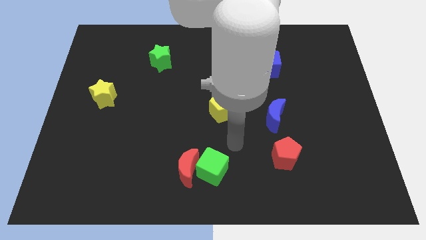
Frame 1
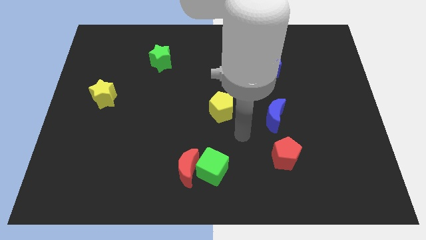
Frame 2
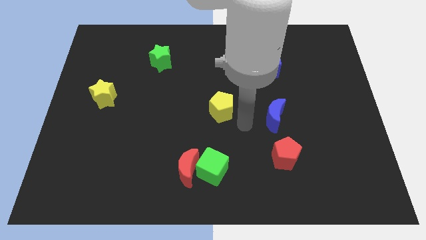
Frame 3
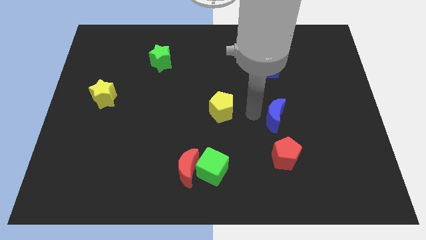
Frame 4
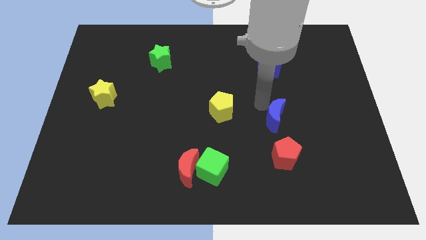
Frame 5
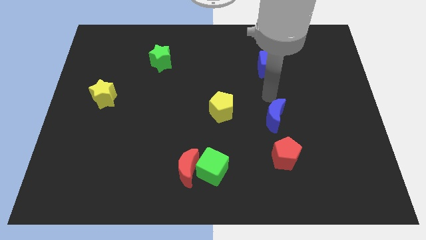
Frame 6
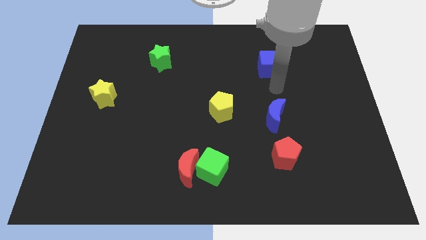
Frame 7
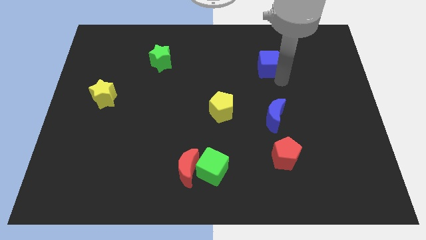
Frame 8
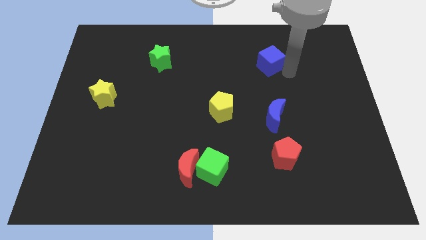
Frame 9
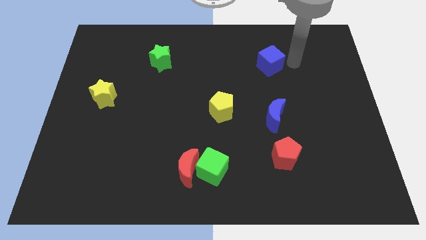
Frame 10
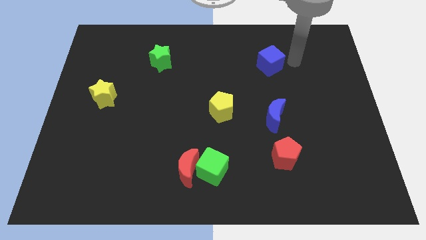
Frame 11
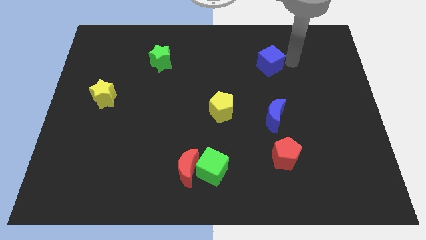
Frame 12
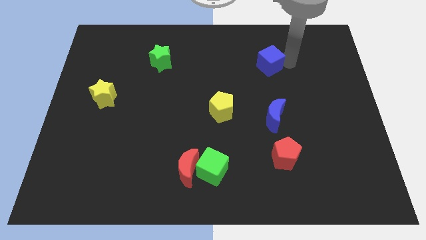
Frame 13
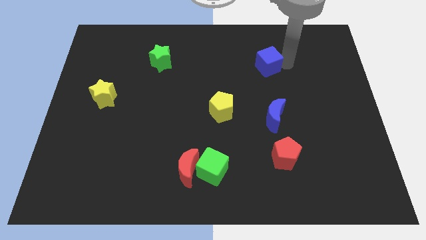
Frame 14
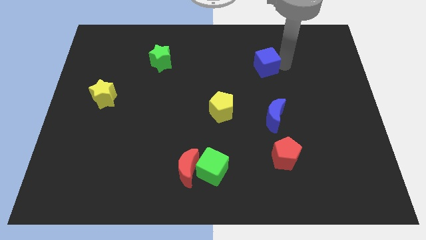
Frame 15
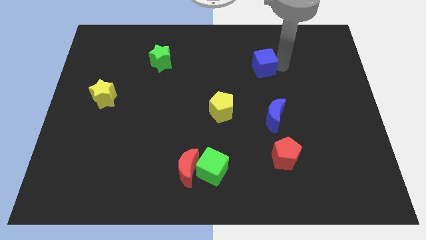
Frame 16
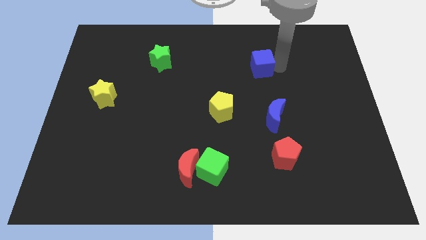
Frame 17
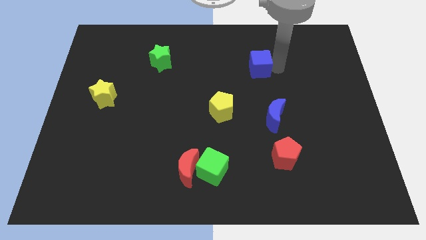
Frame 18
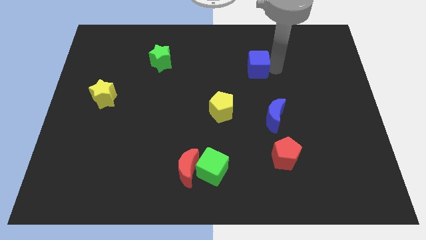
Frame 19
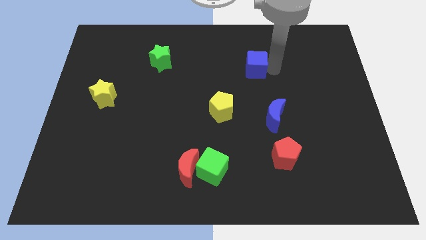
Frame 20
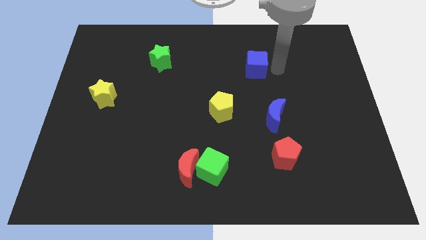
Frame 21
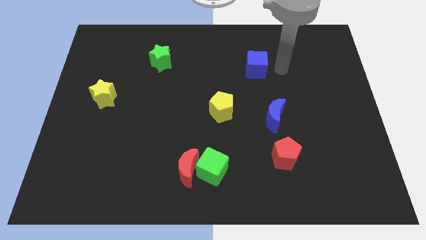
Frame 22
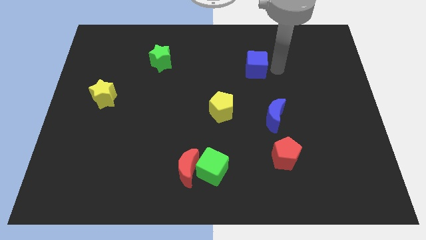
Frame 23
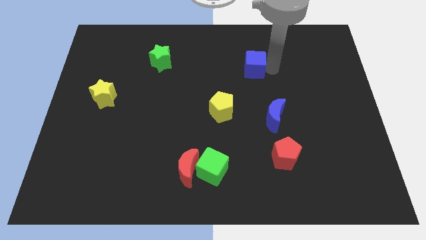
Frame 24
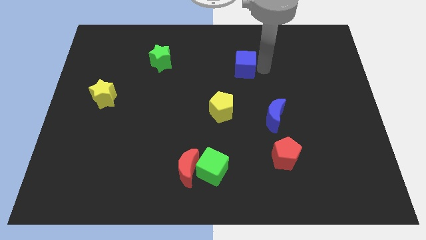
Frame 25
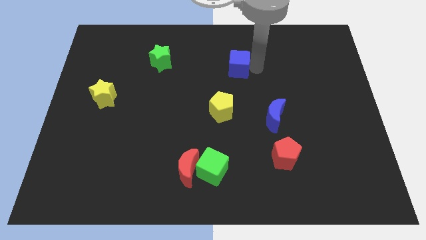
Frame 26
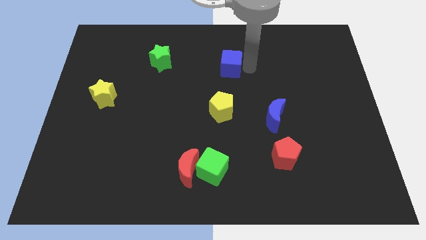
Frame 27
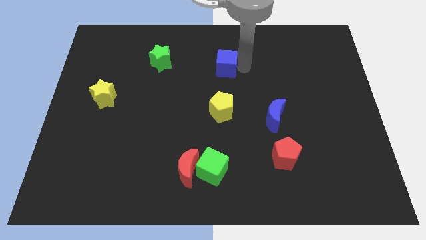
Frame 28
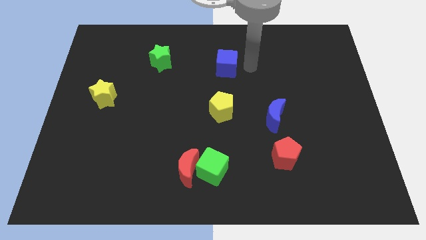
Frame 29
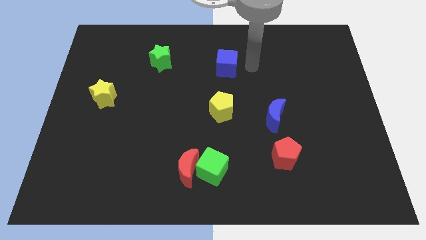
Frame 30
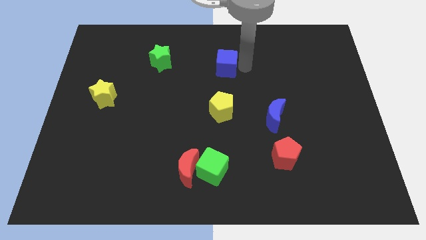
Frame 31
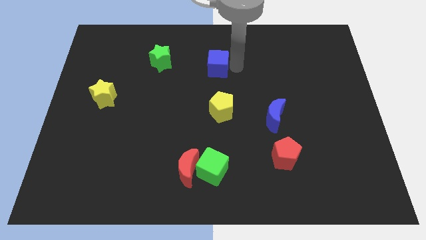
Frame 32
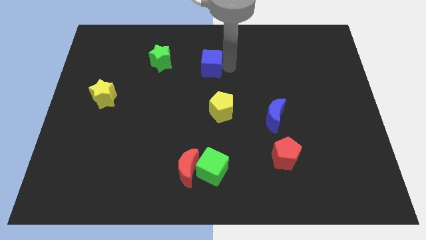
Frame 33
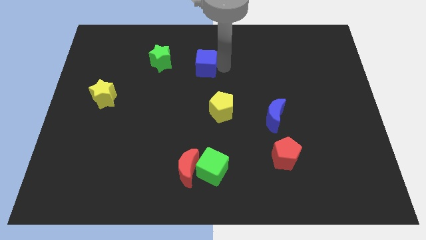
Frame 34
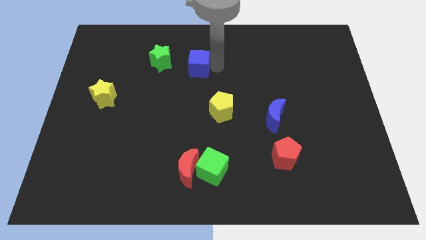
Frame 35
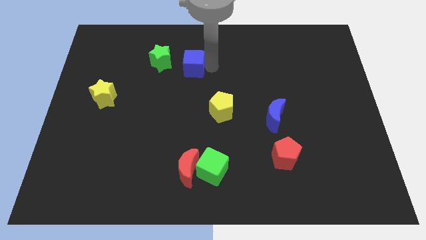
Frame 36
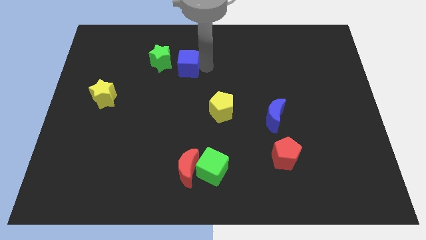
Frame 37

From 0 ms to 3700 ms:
slide the blue cube left

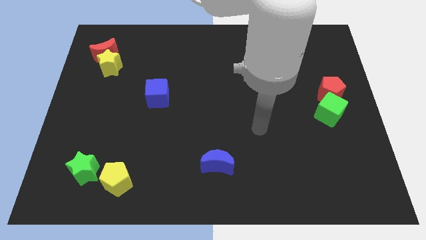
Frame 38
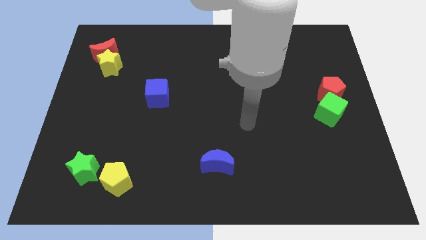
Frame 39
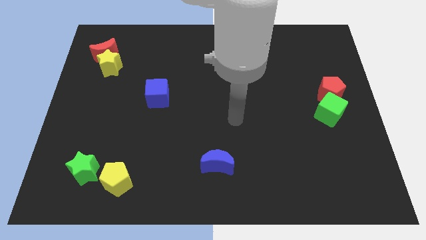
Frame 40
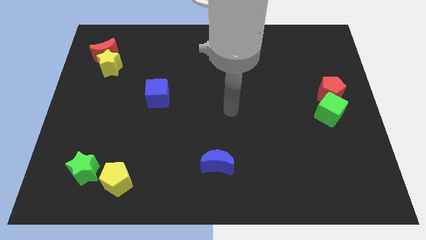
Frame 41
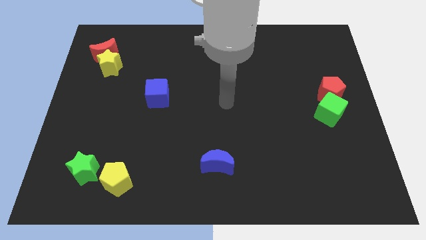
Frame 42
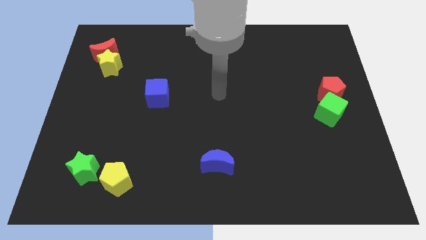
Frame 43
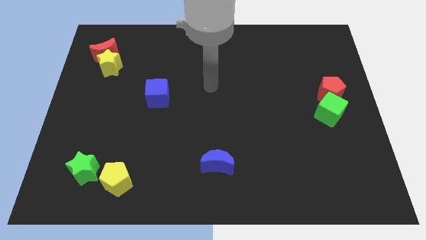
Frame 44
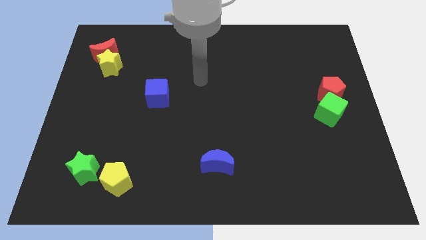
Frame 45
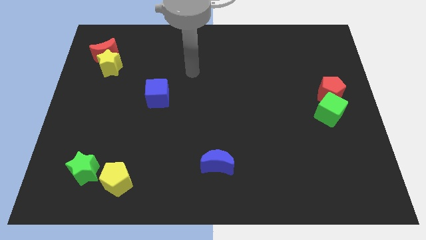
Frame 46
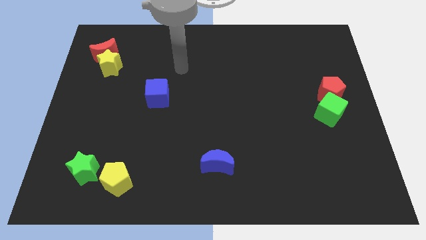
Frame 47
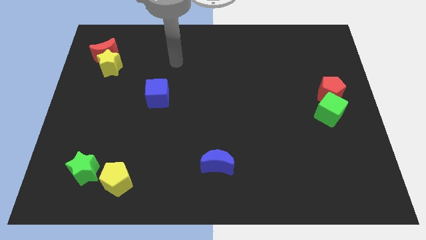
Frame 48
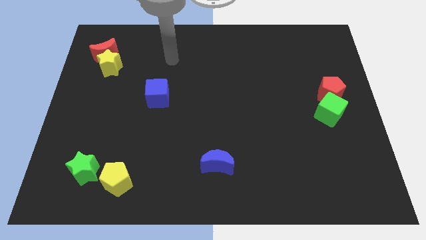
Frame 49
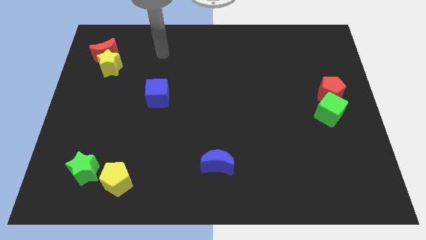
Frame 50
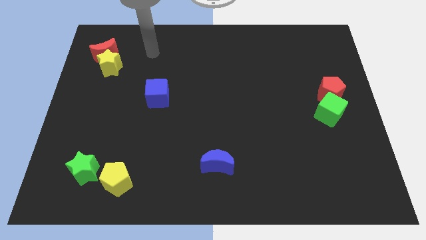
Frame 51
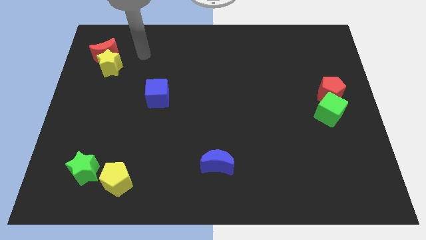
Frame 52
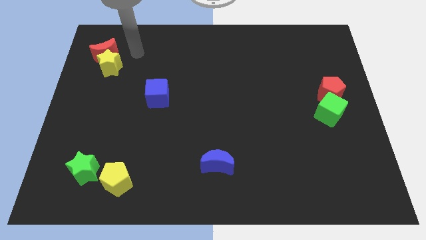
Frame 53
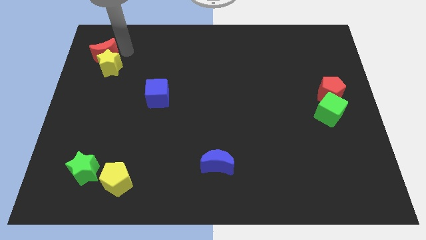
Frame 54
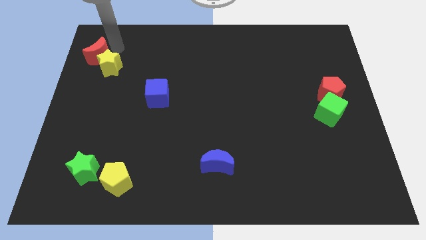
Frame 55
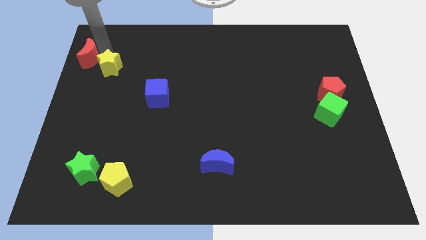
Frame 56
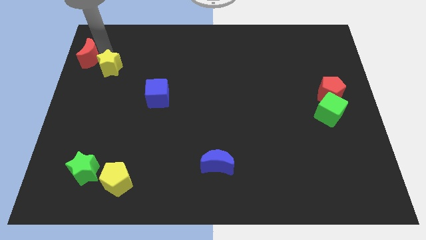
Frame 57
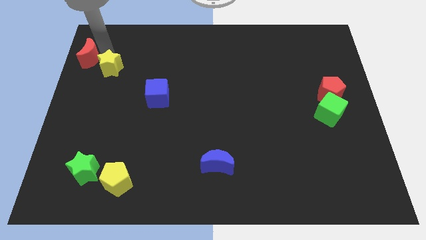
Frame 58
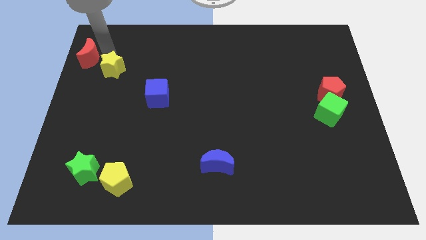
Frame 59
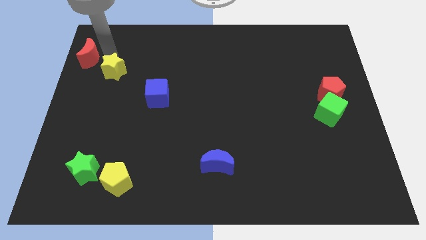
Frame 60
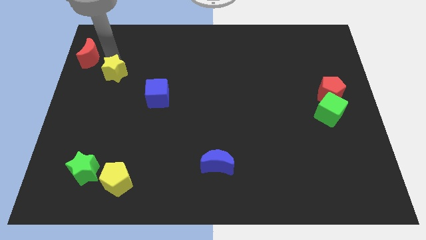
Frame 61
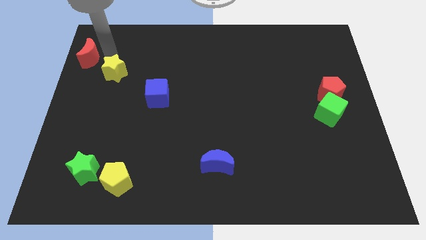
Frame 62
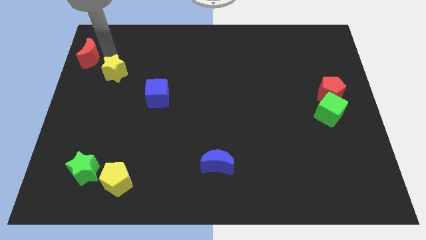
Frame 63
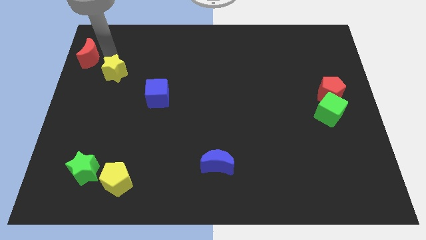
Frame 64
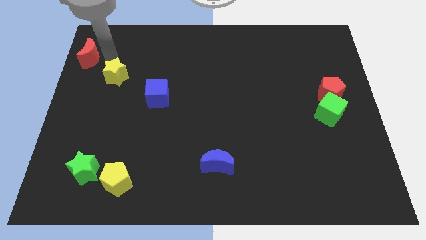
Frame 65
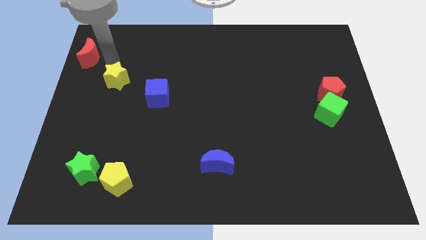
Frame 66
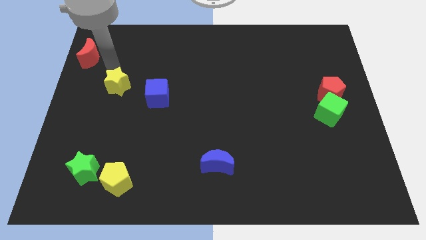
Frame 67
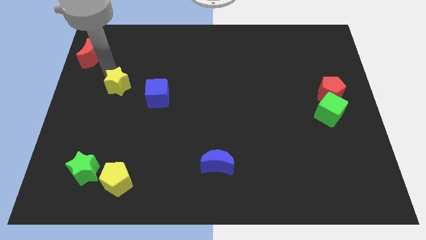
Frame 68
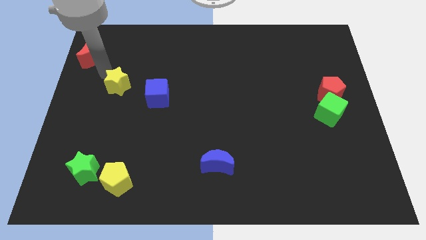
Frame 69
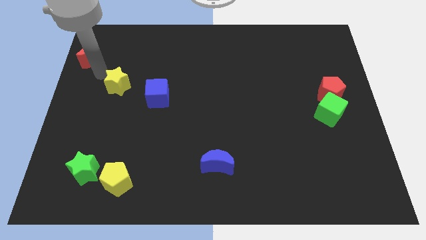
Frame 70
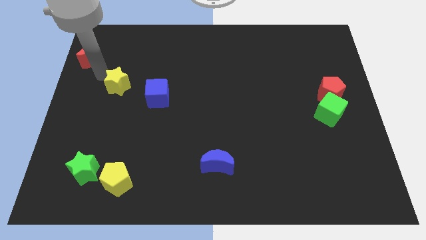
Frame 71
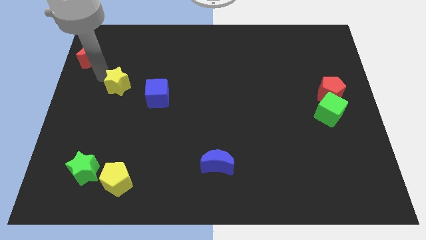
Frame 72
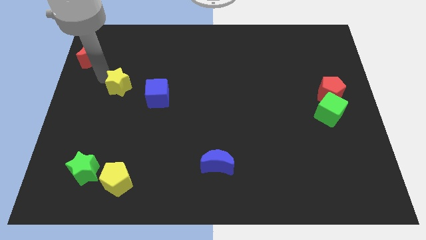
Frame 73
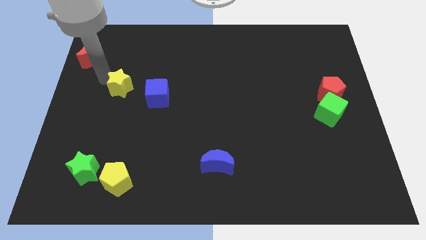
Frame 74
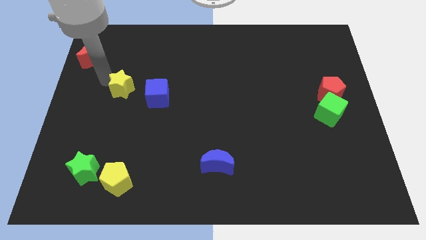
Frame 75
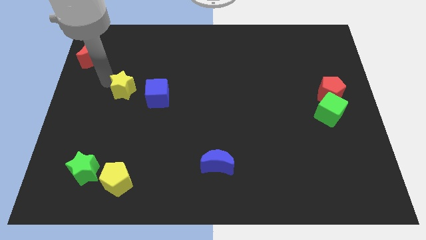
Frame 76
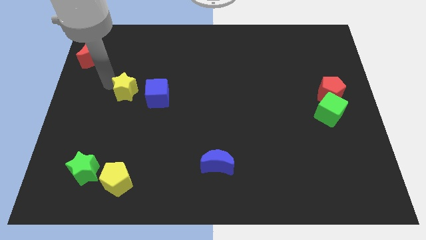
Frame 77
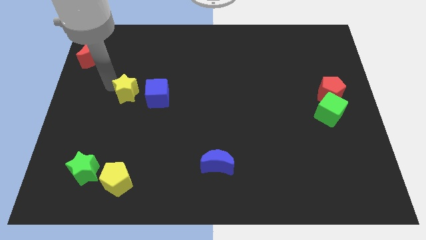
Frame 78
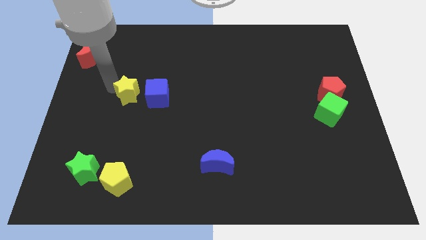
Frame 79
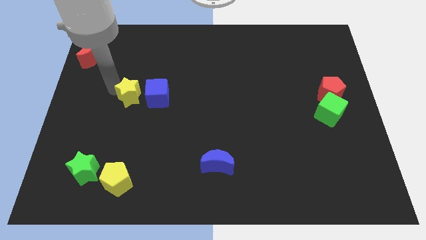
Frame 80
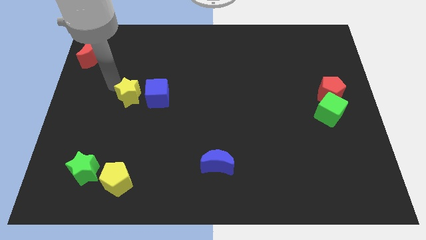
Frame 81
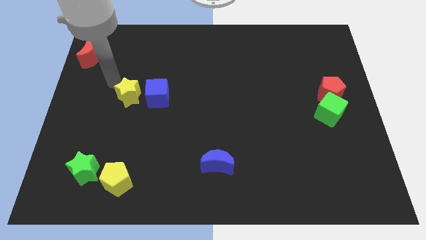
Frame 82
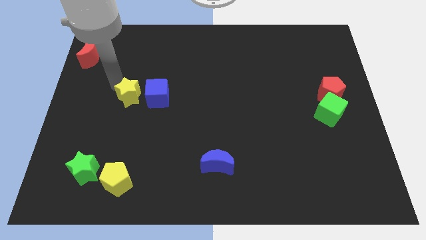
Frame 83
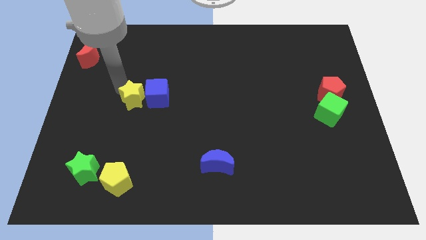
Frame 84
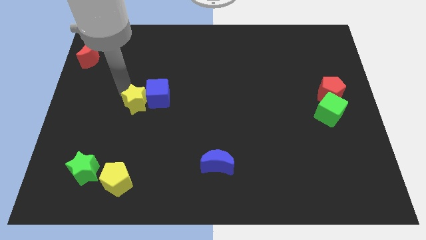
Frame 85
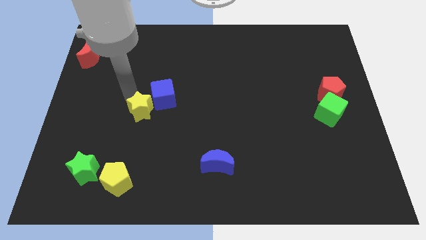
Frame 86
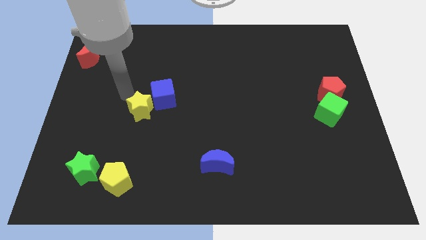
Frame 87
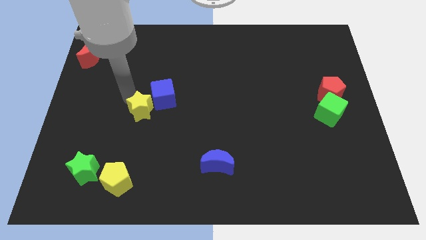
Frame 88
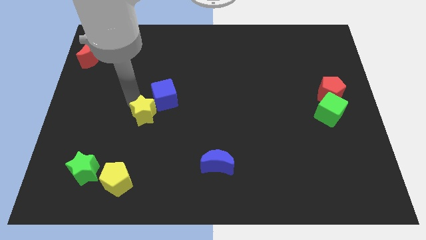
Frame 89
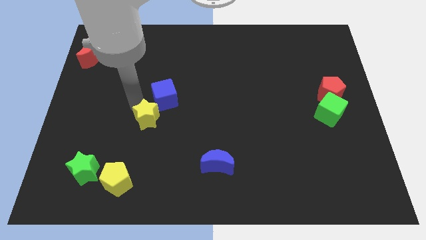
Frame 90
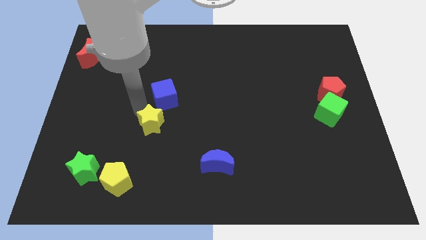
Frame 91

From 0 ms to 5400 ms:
push the yellow star down and to the right diagonally
